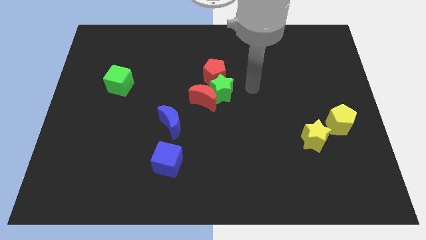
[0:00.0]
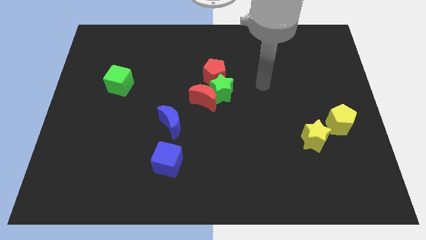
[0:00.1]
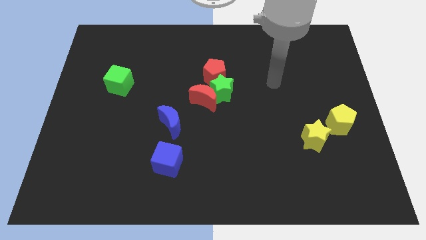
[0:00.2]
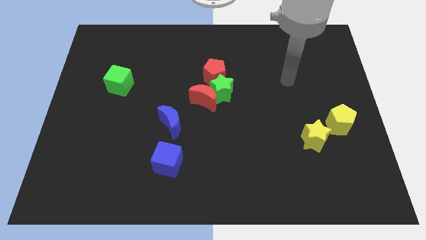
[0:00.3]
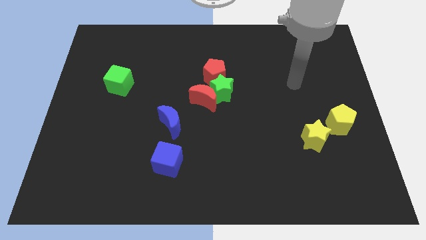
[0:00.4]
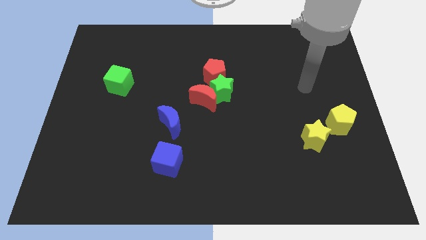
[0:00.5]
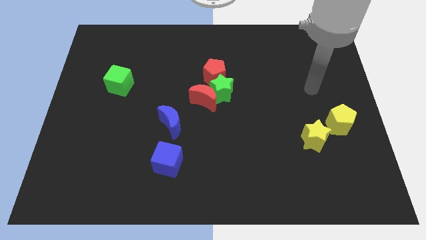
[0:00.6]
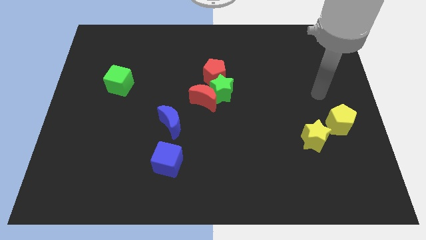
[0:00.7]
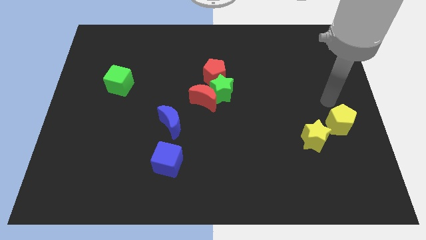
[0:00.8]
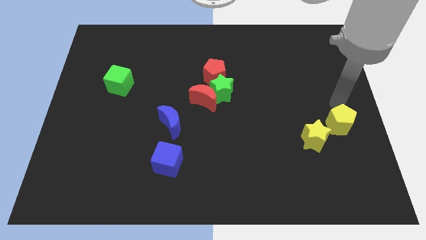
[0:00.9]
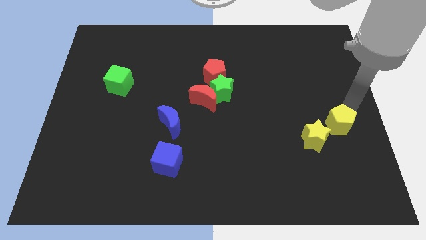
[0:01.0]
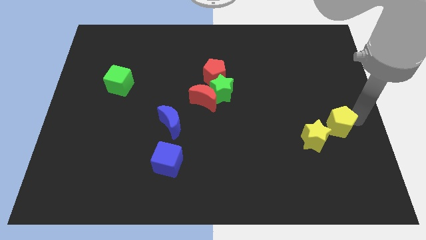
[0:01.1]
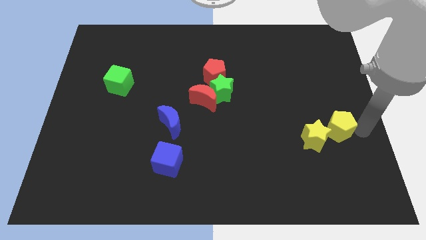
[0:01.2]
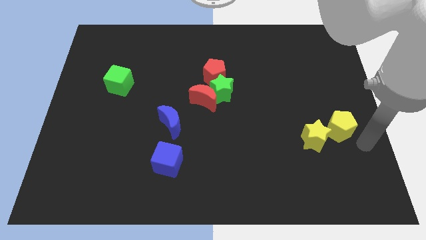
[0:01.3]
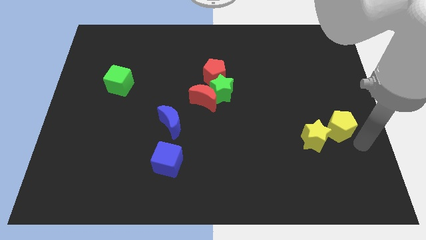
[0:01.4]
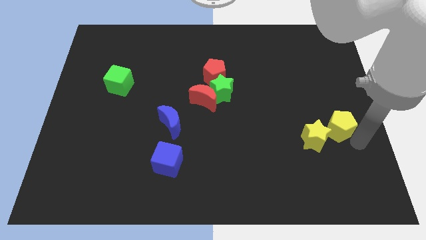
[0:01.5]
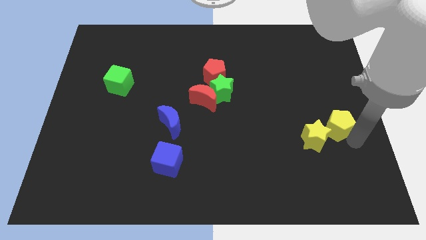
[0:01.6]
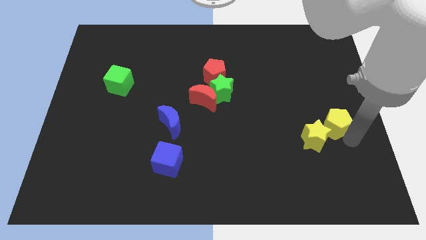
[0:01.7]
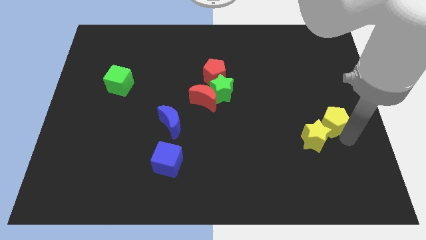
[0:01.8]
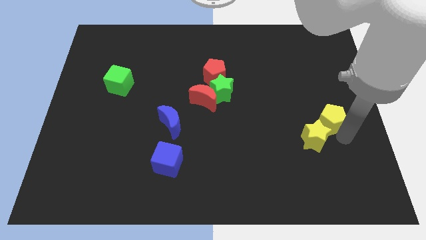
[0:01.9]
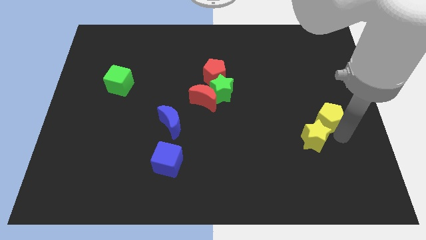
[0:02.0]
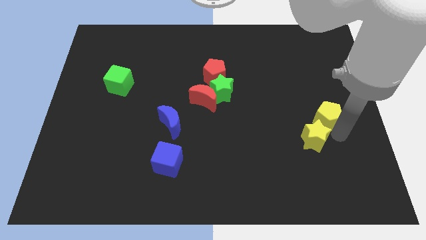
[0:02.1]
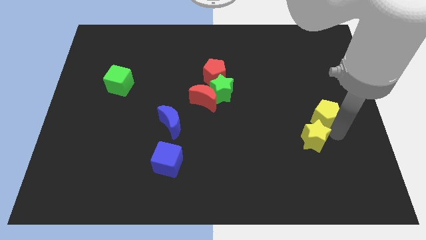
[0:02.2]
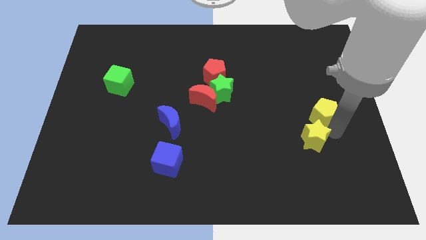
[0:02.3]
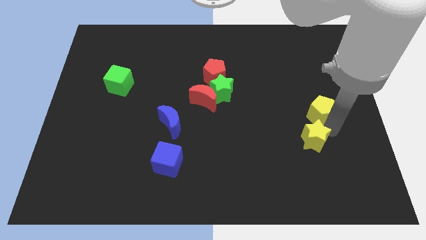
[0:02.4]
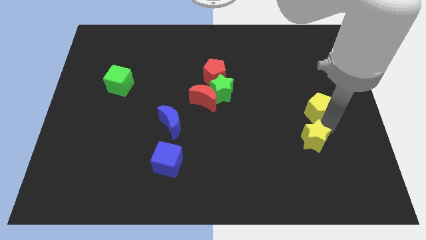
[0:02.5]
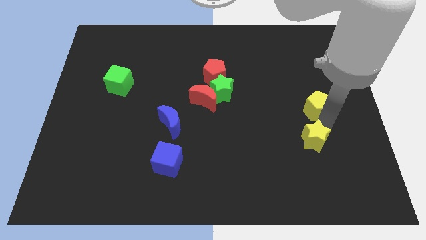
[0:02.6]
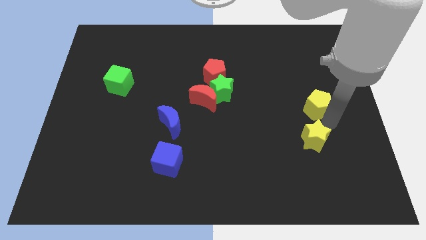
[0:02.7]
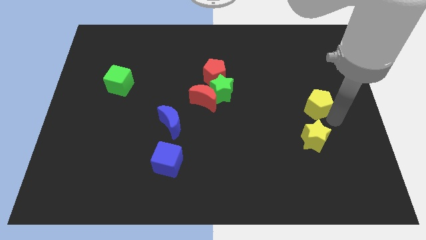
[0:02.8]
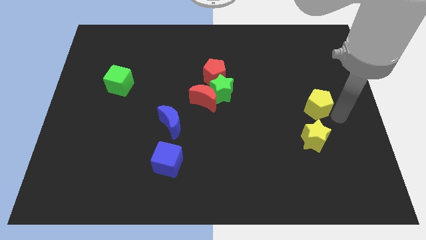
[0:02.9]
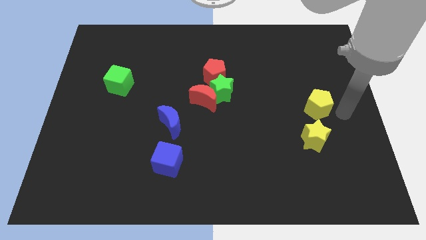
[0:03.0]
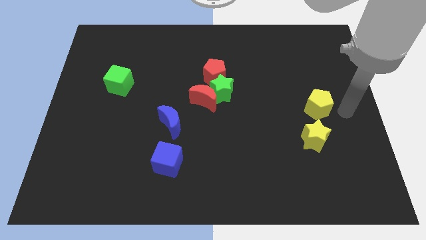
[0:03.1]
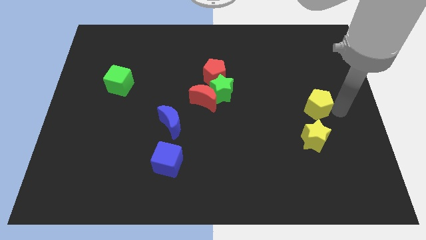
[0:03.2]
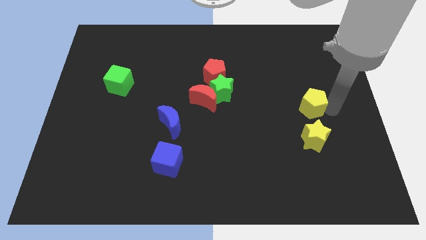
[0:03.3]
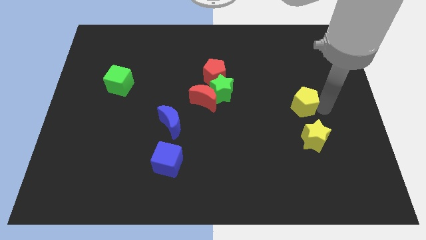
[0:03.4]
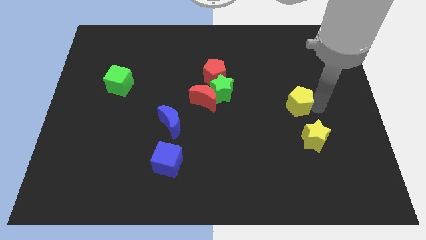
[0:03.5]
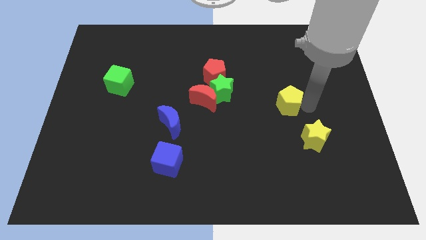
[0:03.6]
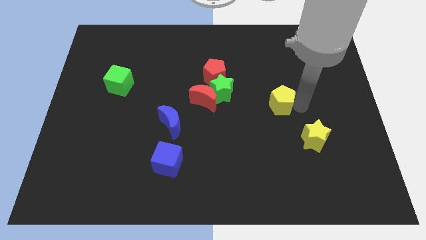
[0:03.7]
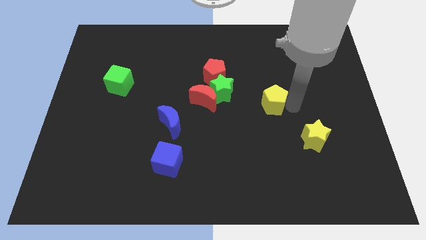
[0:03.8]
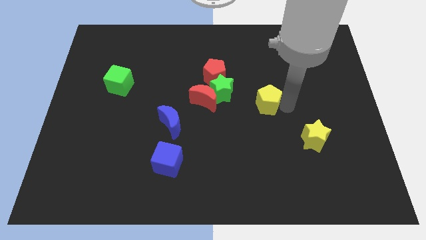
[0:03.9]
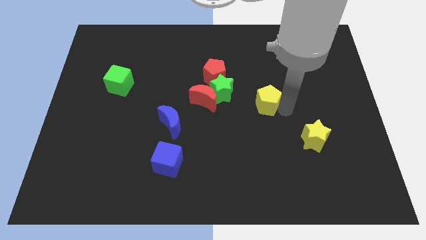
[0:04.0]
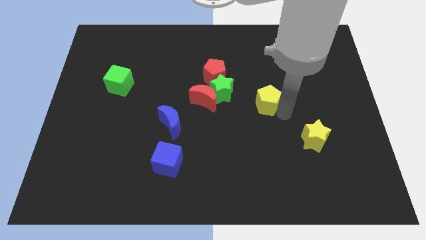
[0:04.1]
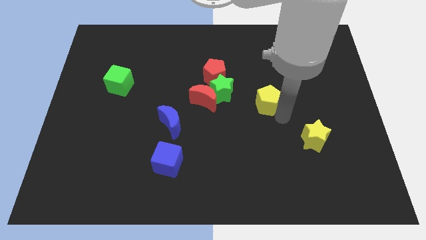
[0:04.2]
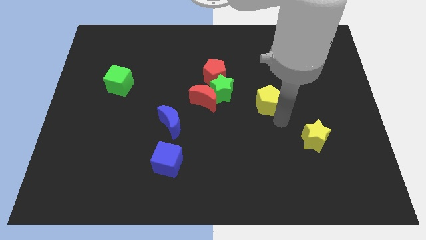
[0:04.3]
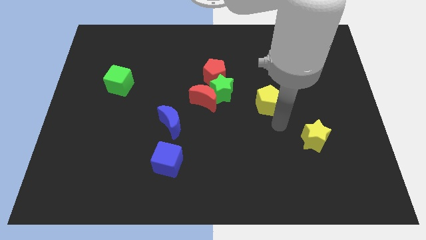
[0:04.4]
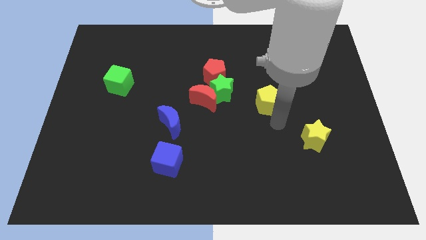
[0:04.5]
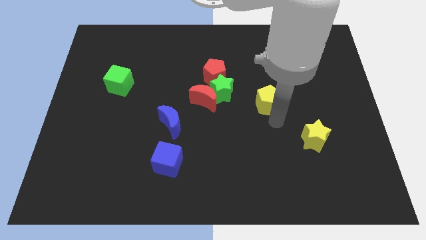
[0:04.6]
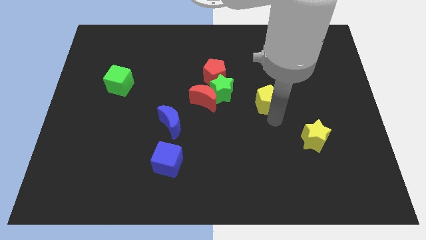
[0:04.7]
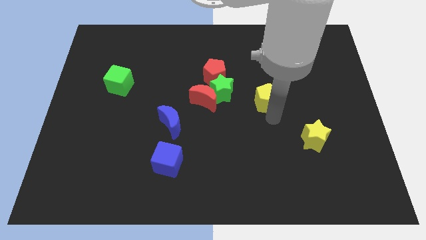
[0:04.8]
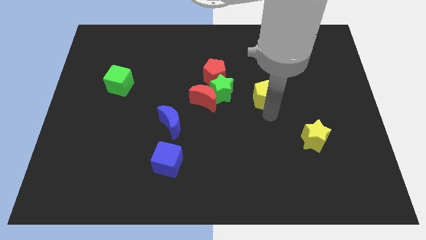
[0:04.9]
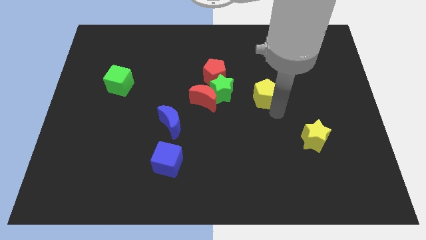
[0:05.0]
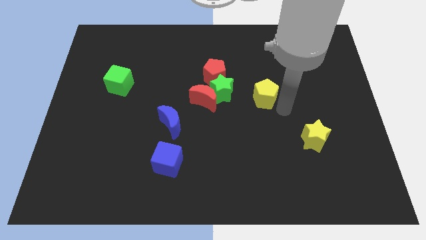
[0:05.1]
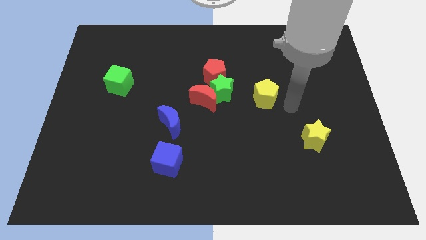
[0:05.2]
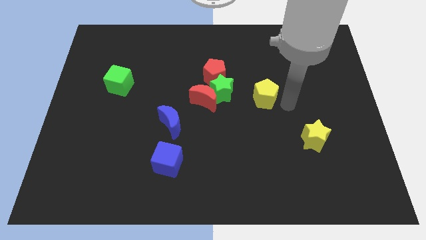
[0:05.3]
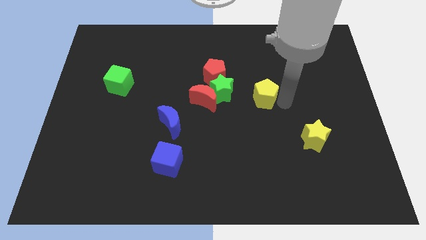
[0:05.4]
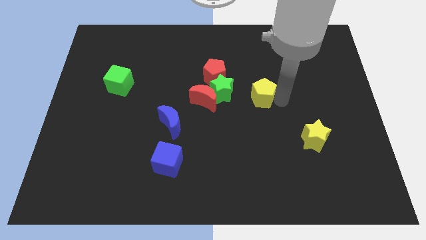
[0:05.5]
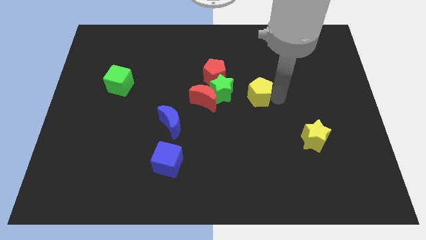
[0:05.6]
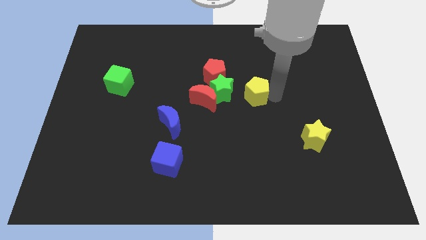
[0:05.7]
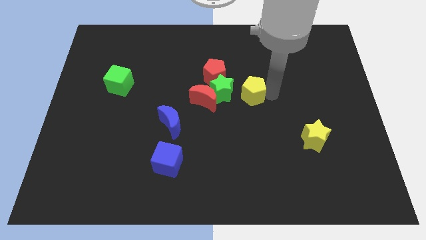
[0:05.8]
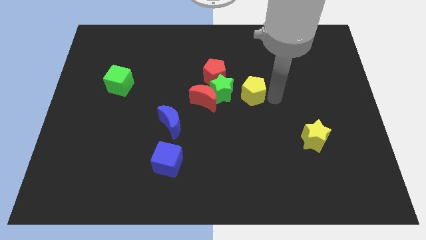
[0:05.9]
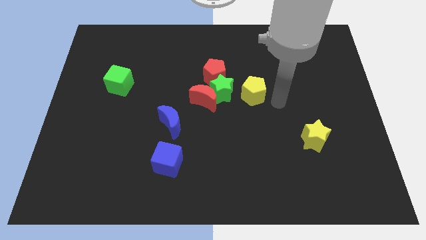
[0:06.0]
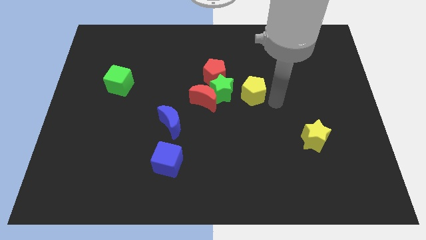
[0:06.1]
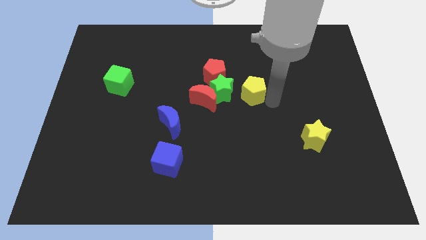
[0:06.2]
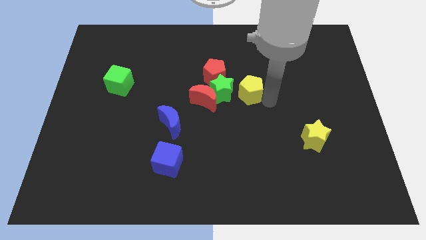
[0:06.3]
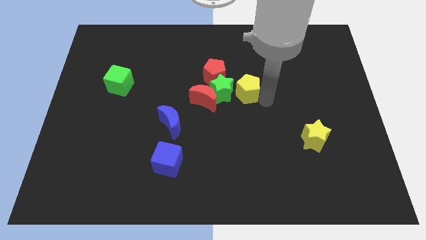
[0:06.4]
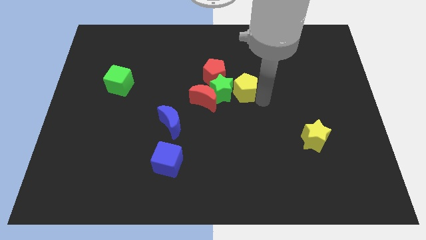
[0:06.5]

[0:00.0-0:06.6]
push the yellow pentagon diagonally up and to the right of the red moon

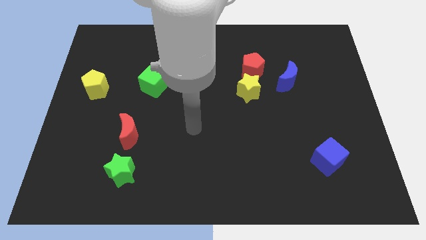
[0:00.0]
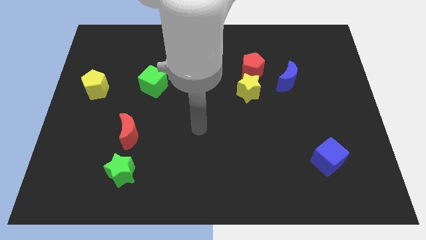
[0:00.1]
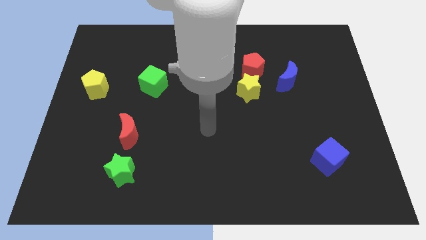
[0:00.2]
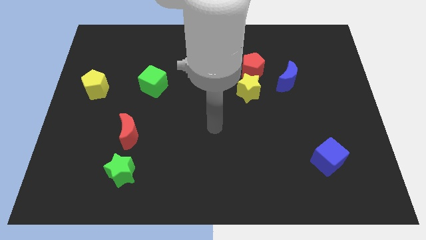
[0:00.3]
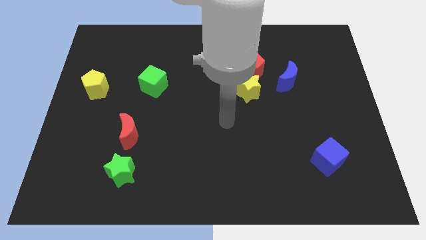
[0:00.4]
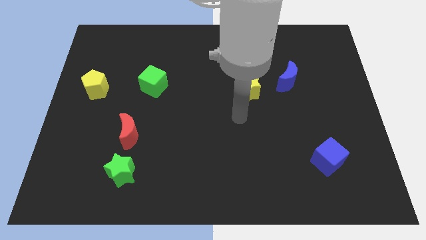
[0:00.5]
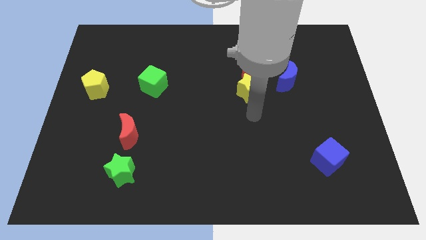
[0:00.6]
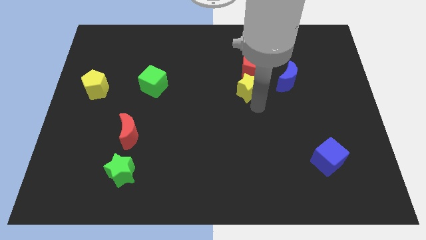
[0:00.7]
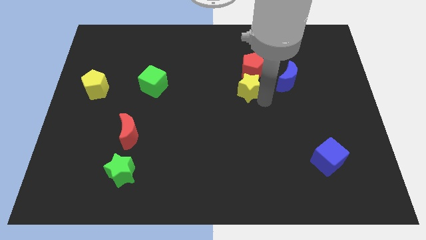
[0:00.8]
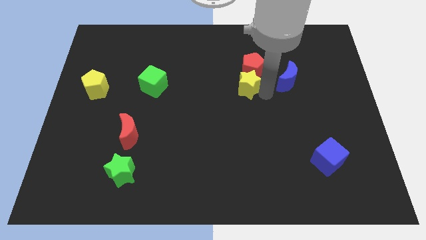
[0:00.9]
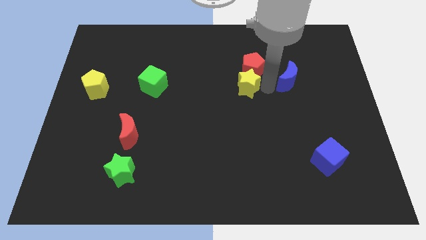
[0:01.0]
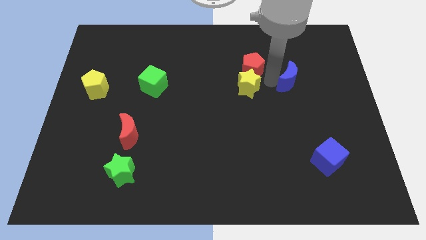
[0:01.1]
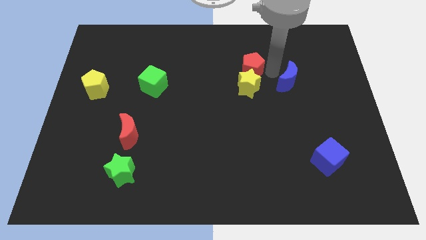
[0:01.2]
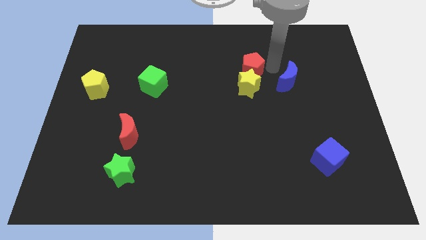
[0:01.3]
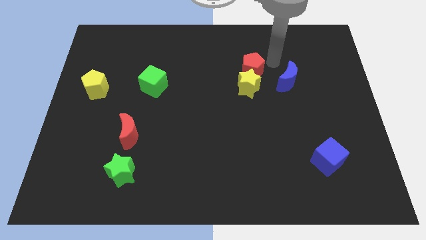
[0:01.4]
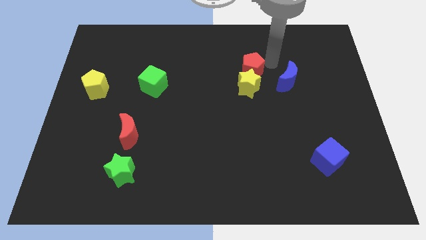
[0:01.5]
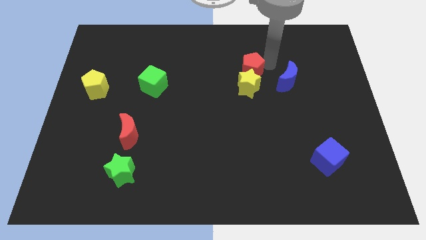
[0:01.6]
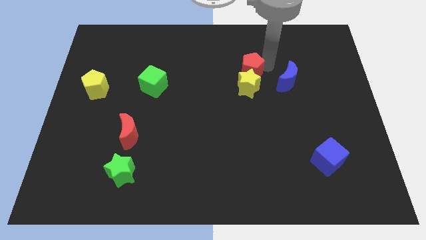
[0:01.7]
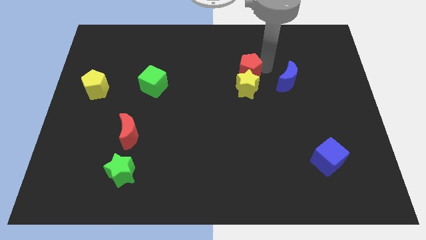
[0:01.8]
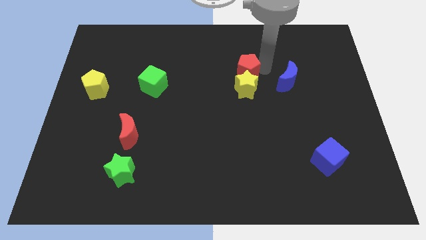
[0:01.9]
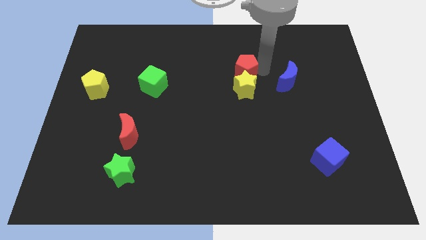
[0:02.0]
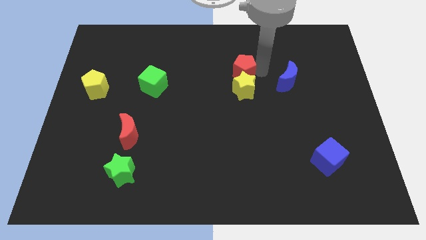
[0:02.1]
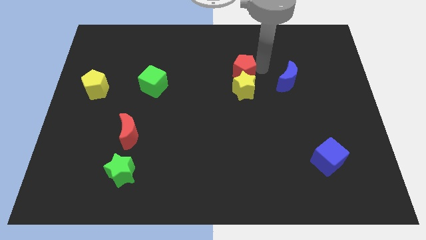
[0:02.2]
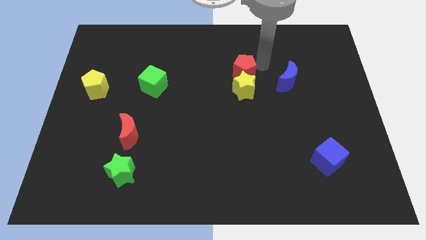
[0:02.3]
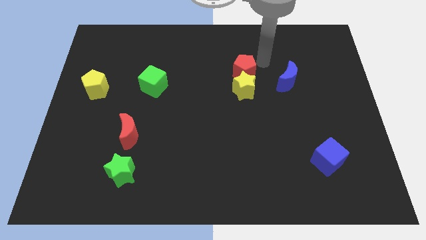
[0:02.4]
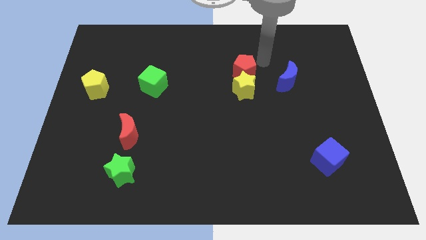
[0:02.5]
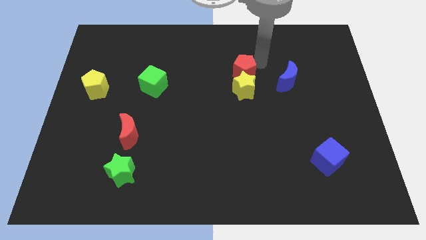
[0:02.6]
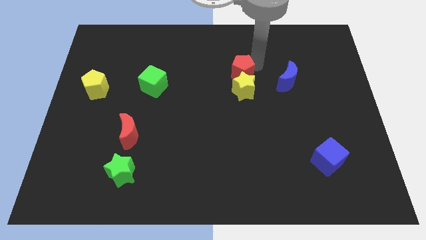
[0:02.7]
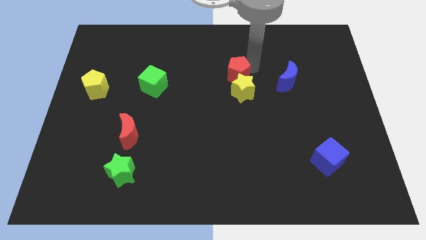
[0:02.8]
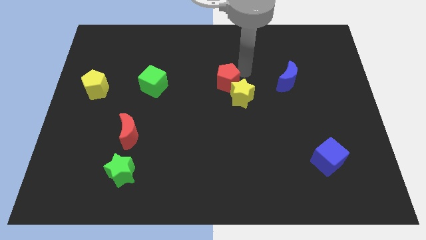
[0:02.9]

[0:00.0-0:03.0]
slide the red pentagon to the left of the yellow star
